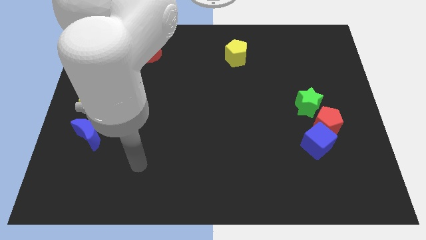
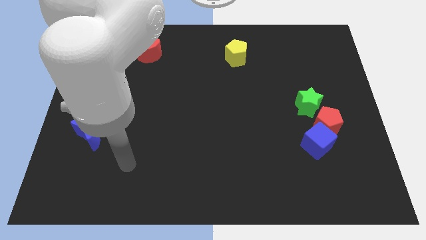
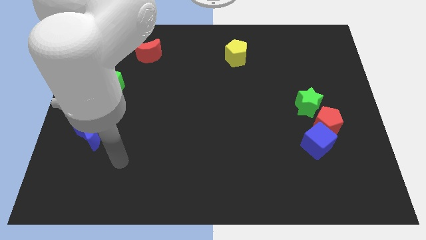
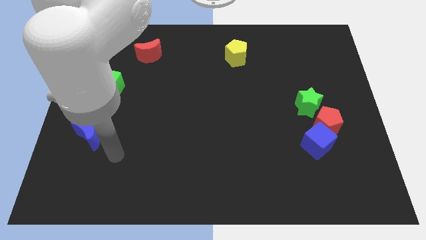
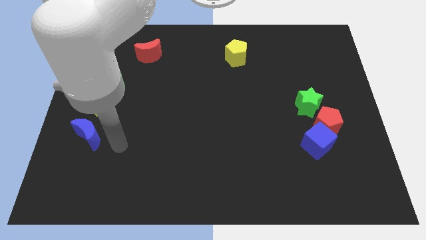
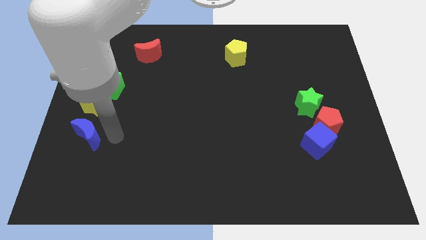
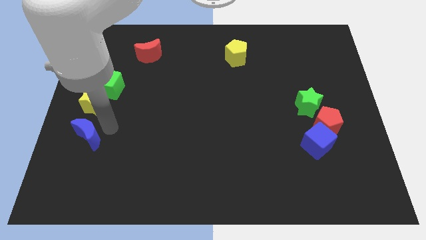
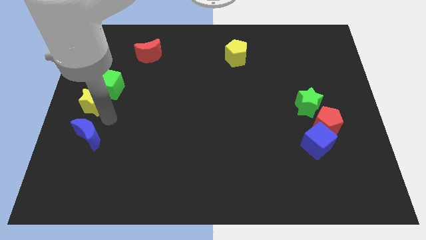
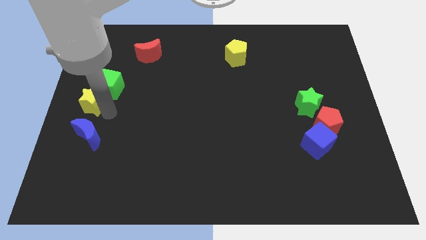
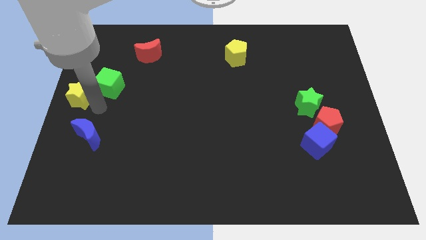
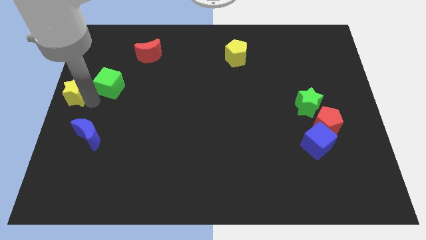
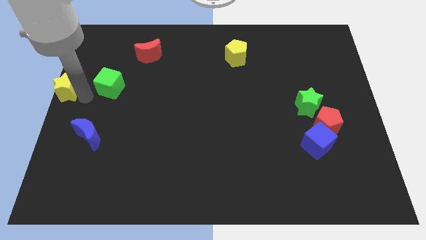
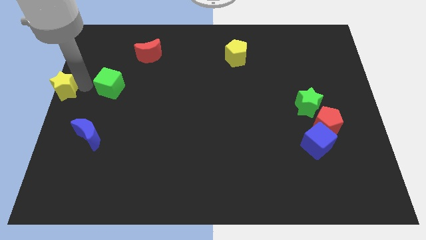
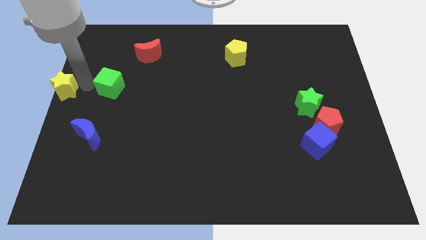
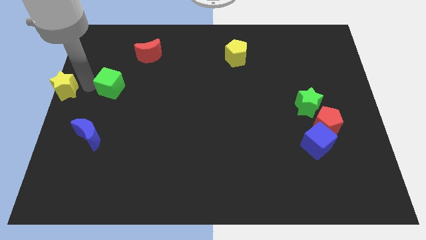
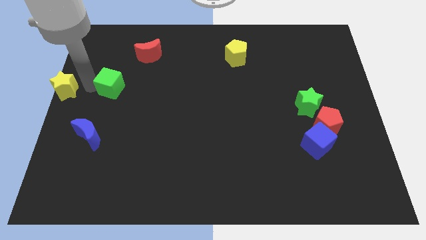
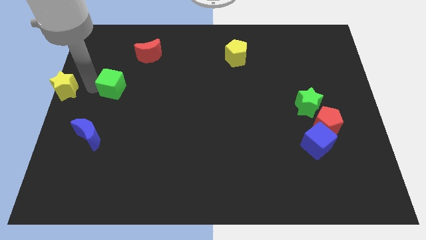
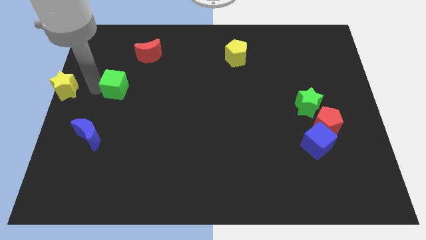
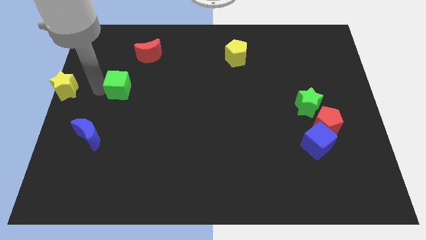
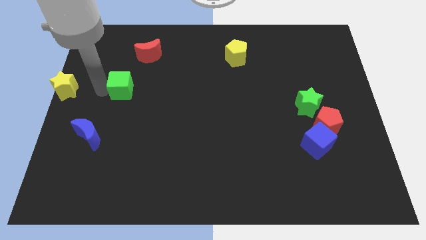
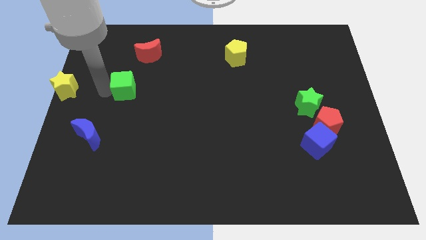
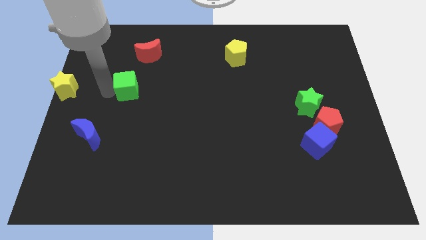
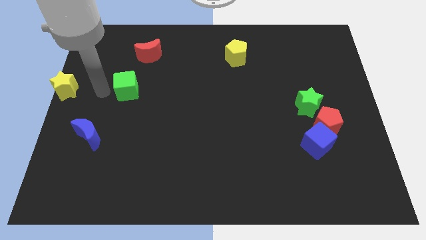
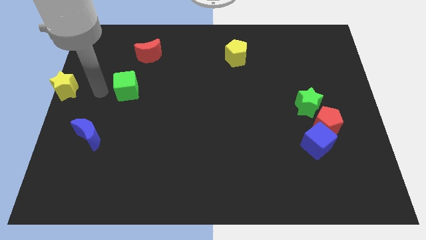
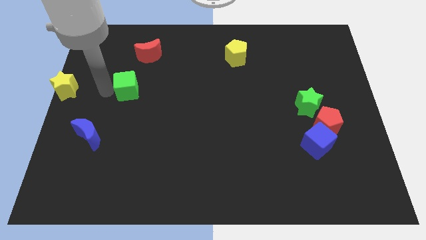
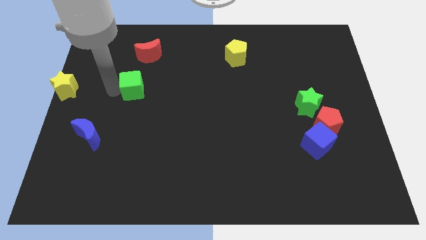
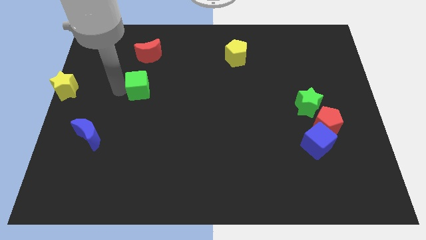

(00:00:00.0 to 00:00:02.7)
move the green cube to the right somewhat

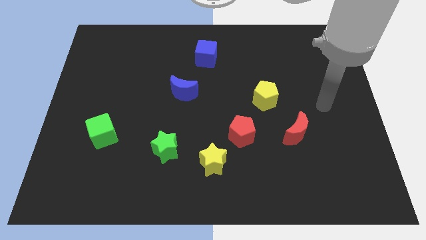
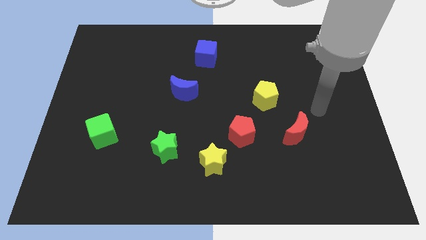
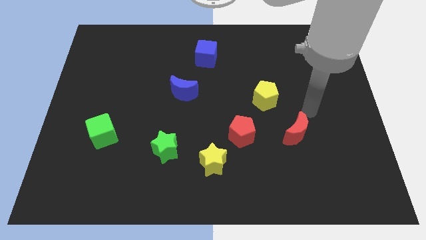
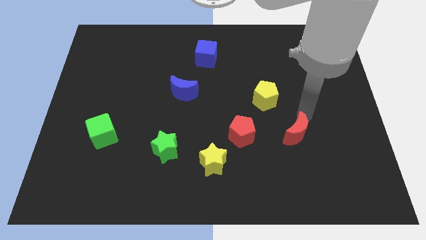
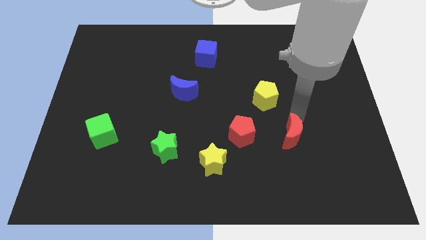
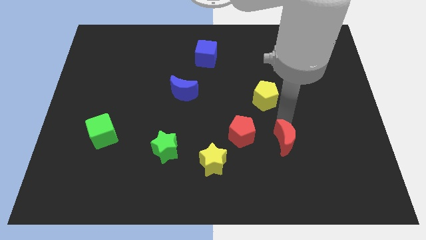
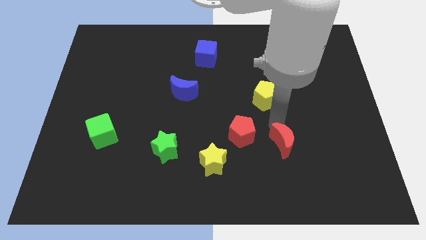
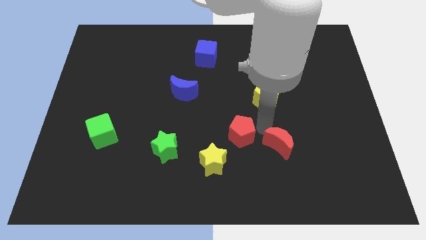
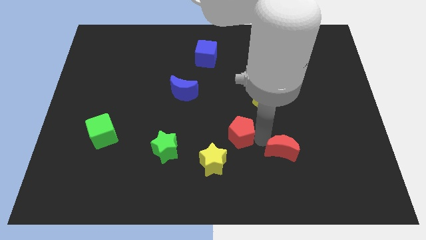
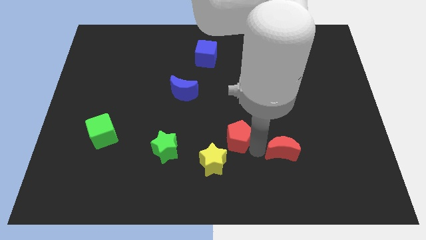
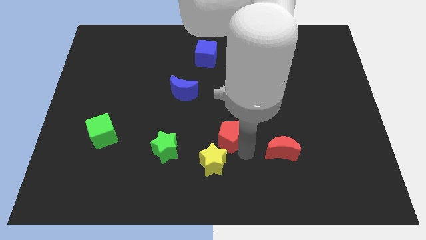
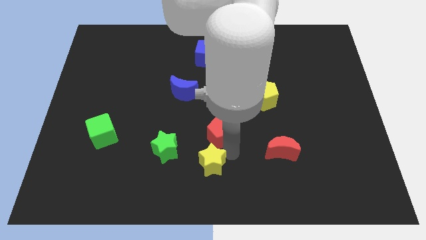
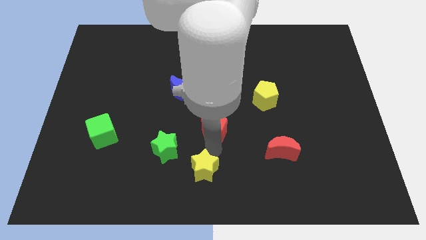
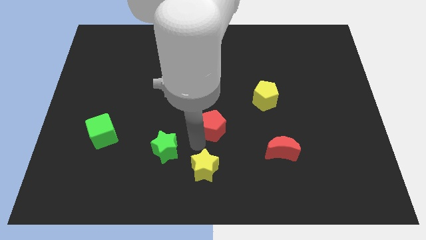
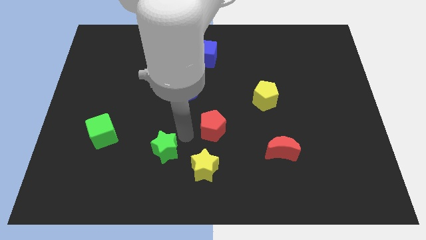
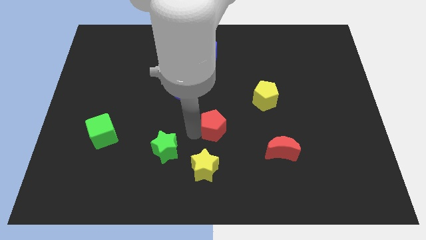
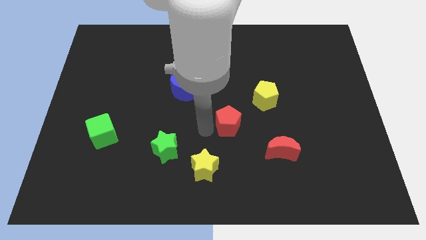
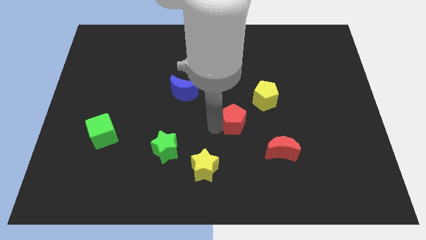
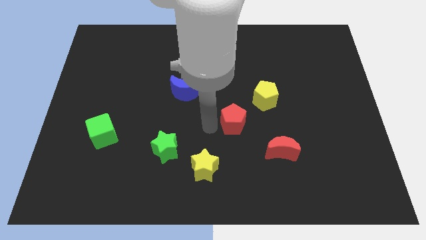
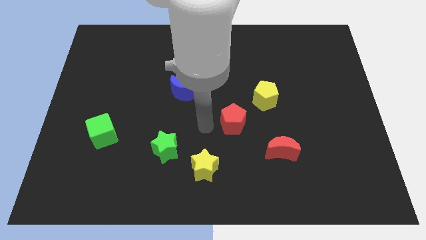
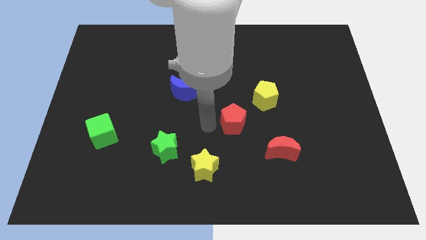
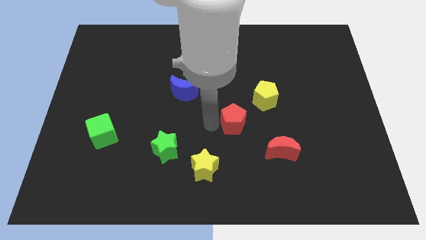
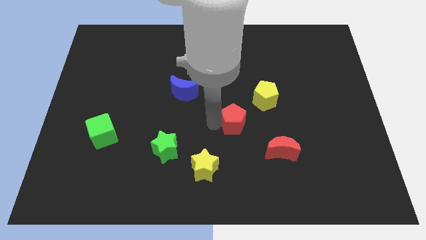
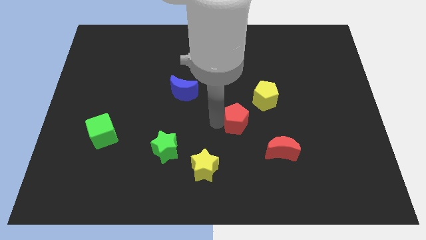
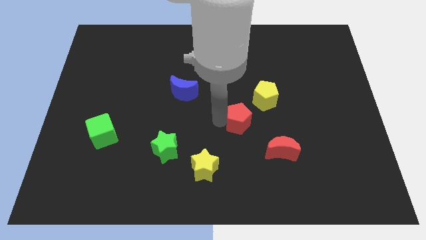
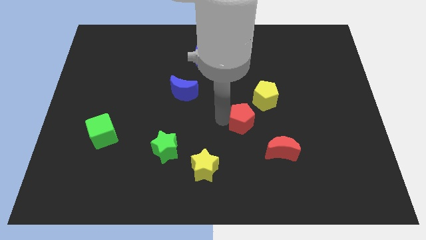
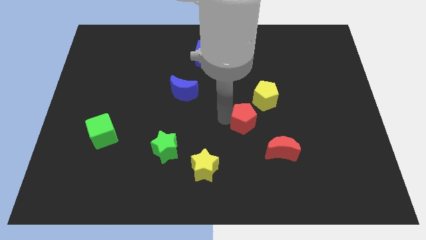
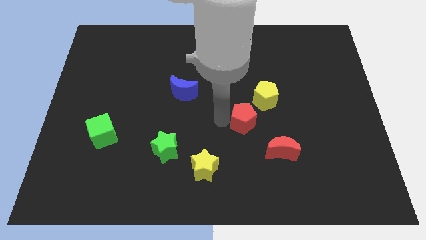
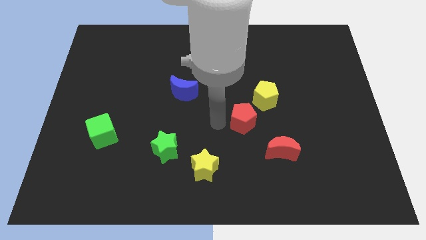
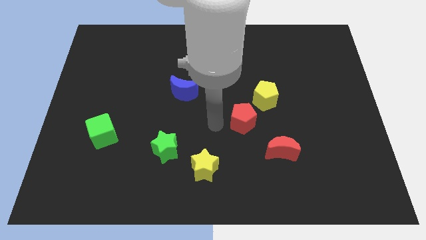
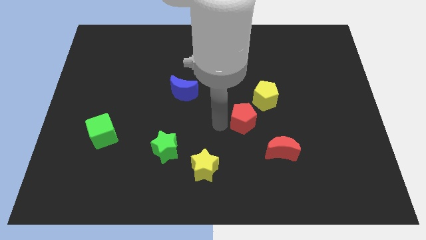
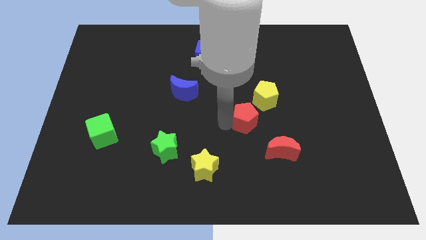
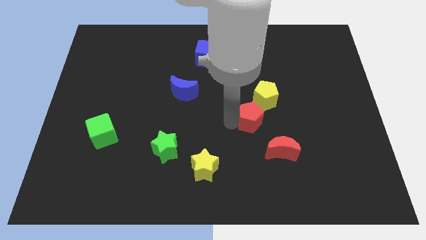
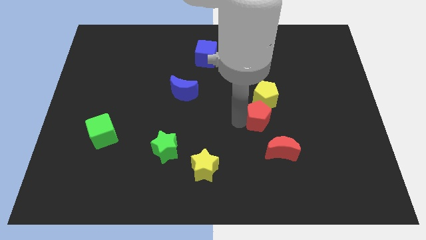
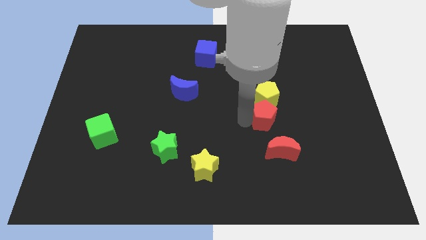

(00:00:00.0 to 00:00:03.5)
slightly slide the red pentagon upwards and right

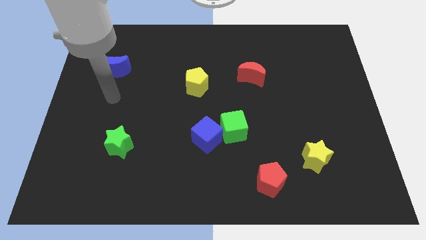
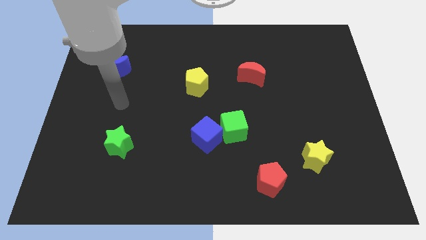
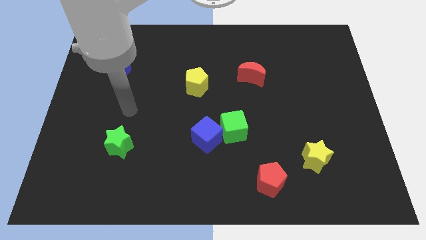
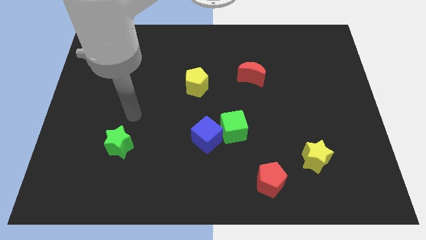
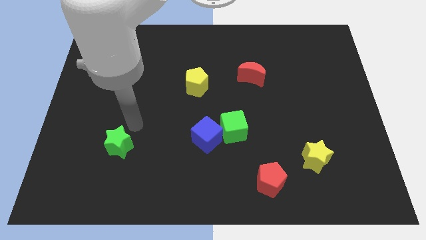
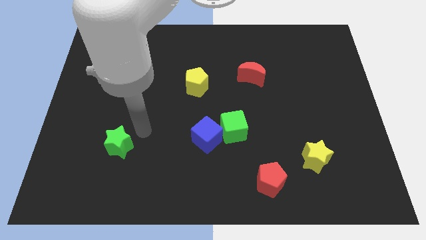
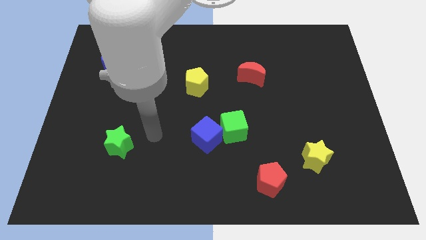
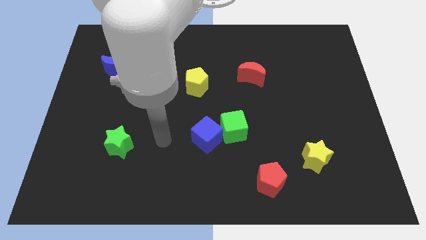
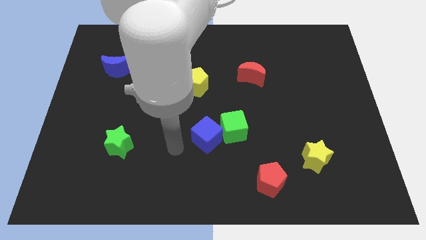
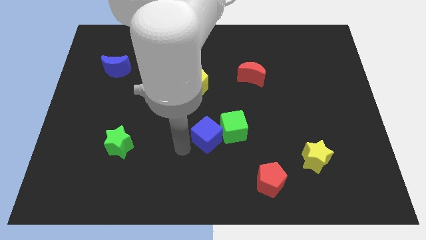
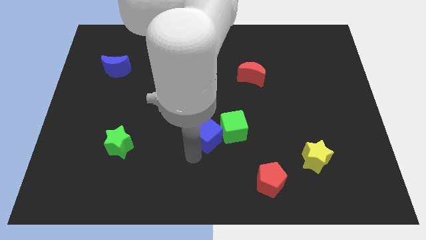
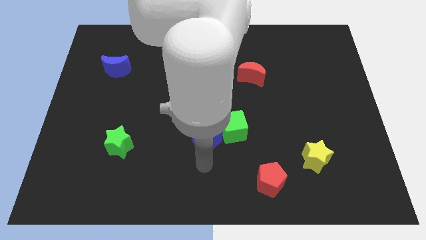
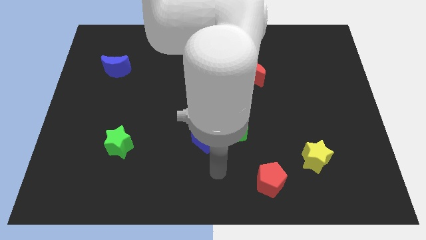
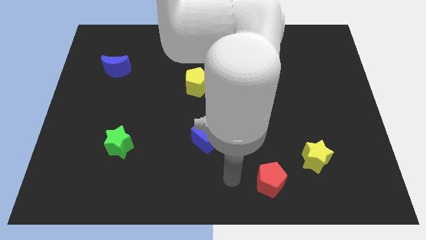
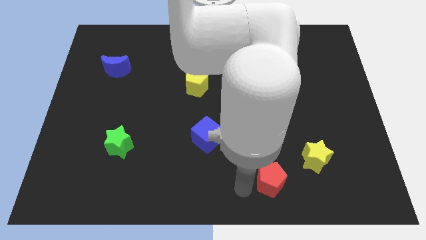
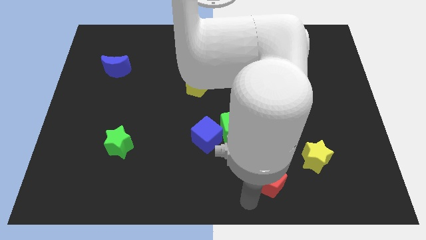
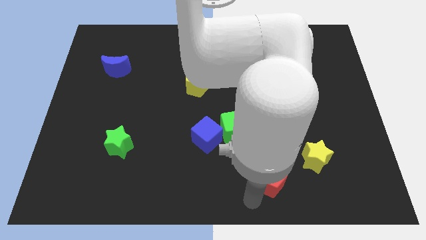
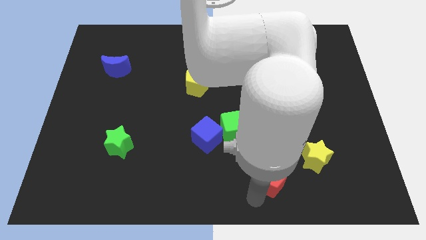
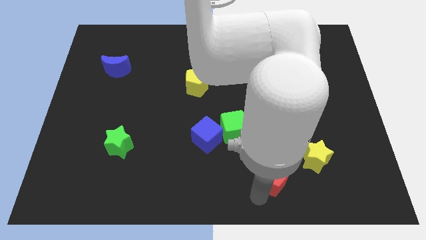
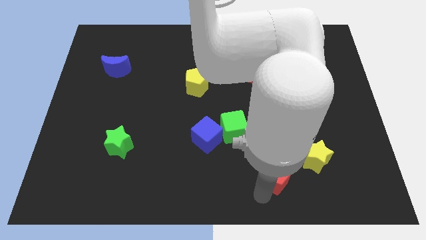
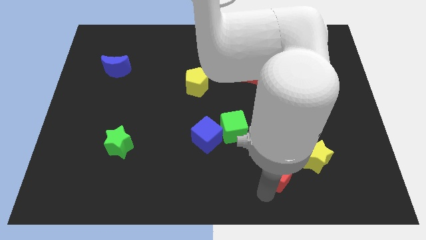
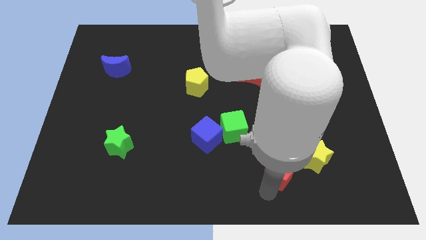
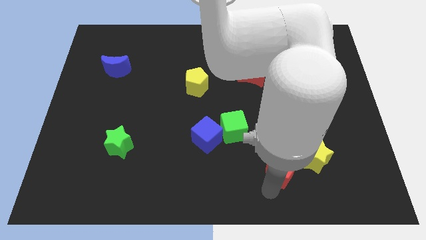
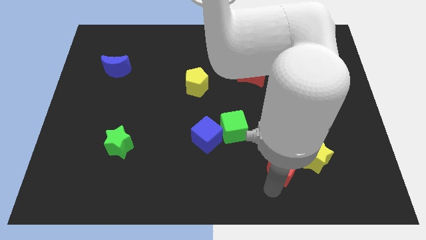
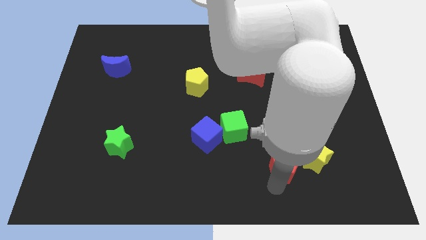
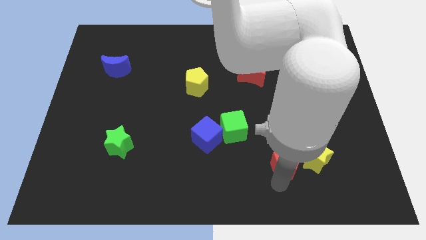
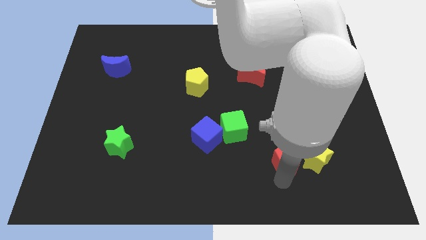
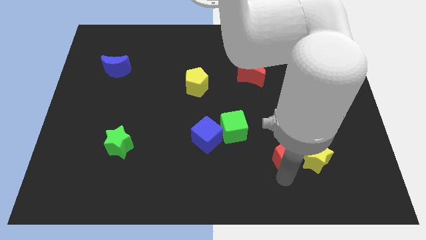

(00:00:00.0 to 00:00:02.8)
move the red pentagon a bit diagonally upwards and right
